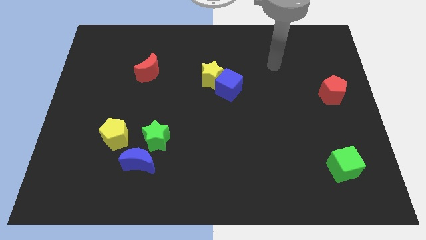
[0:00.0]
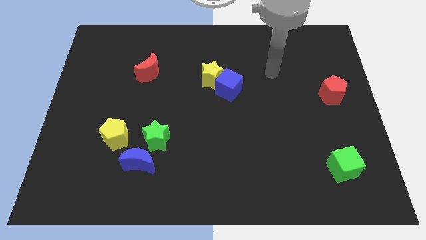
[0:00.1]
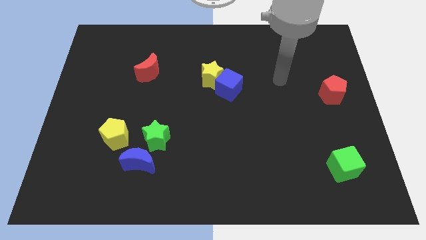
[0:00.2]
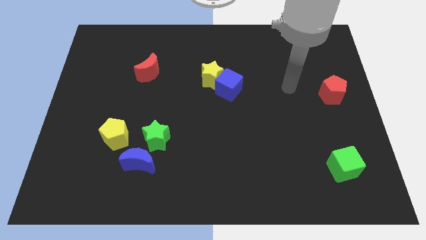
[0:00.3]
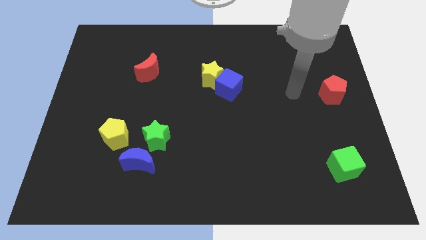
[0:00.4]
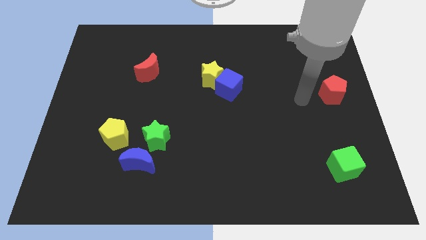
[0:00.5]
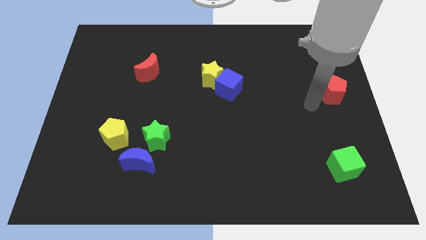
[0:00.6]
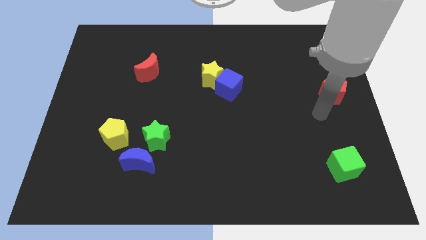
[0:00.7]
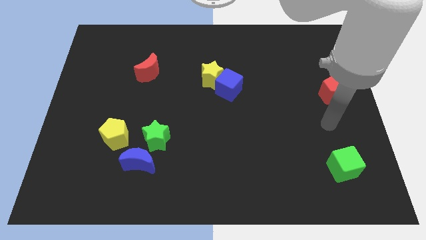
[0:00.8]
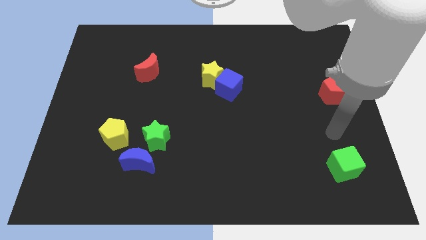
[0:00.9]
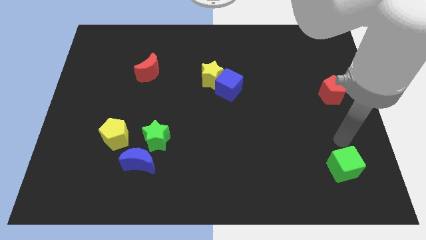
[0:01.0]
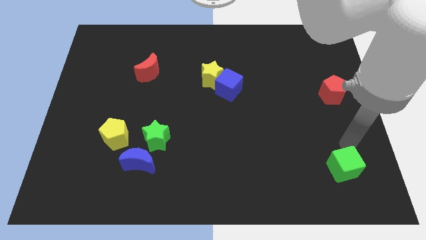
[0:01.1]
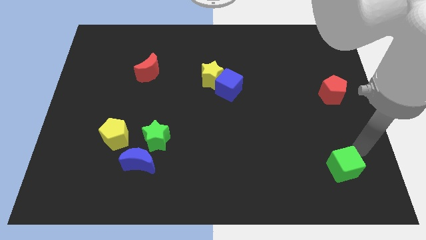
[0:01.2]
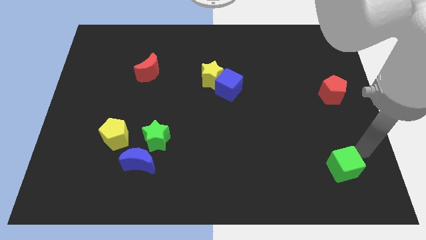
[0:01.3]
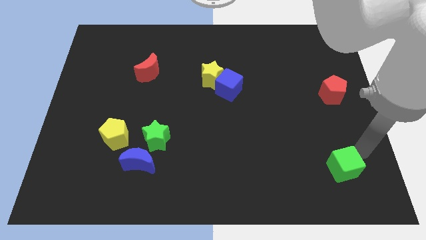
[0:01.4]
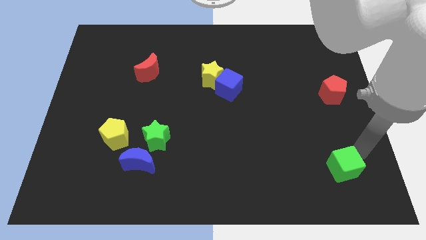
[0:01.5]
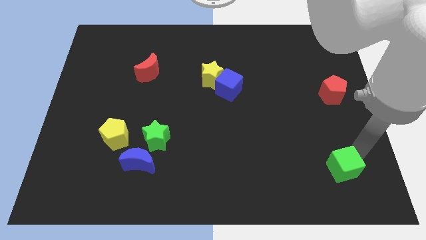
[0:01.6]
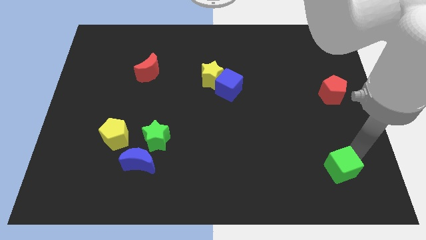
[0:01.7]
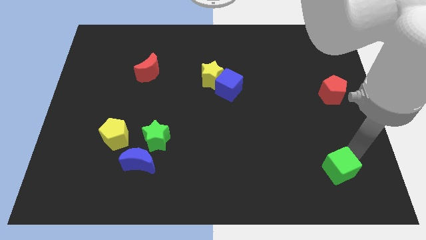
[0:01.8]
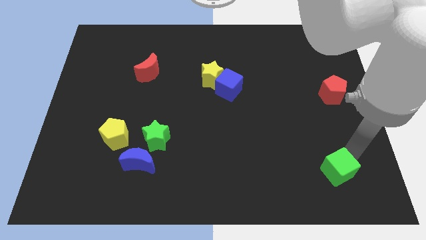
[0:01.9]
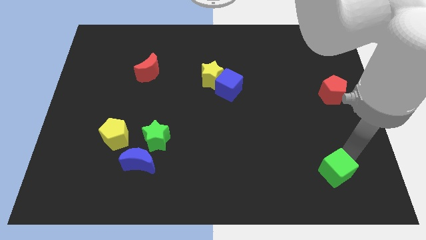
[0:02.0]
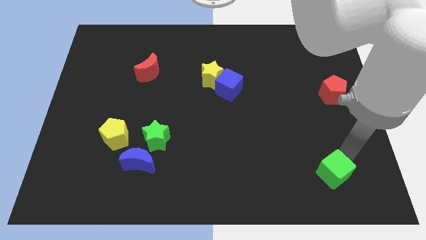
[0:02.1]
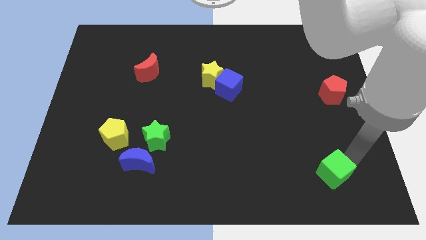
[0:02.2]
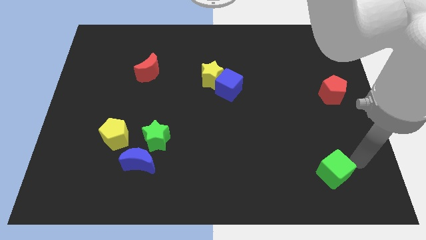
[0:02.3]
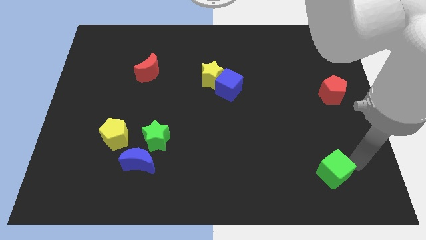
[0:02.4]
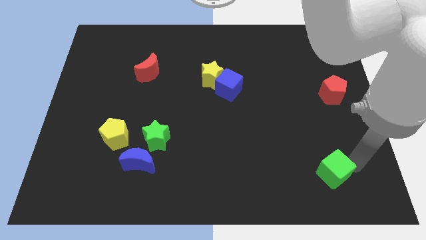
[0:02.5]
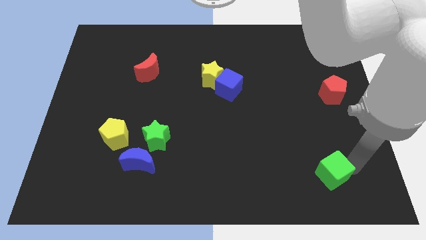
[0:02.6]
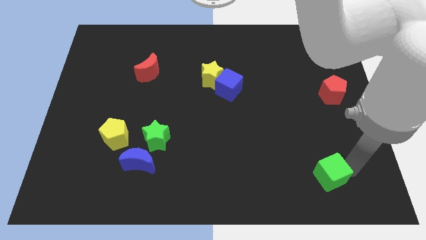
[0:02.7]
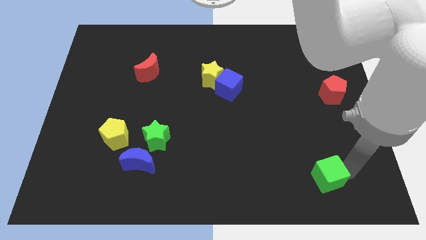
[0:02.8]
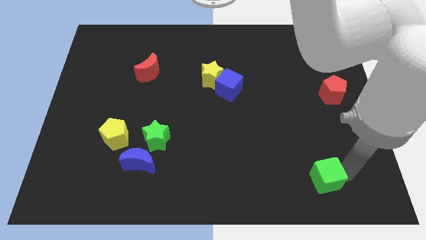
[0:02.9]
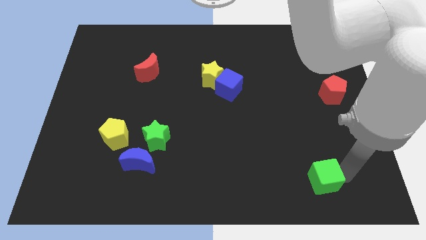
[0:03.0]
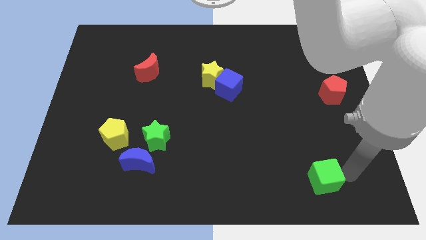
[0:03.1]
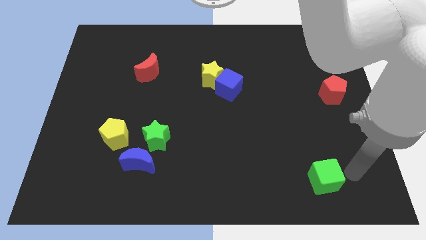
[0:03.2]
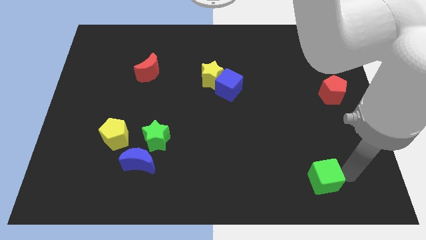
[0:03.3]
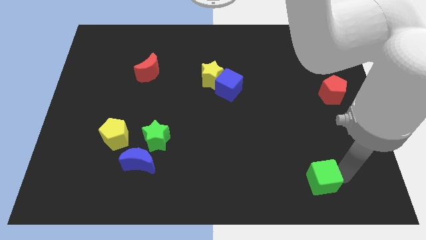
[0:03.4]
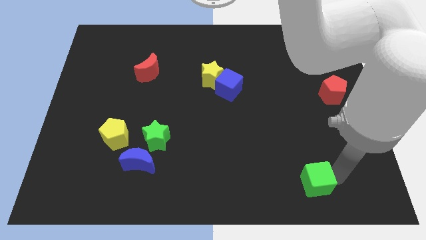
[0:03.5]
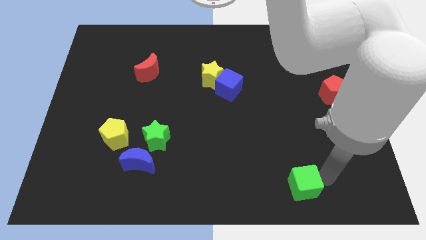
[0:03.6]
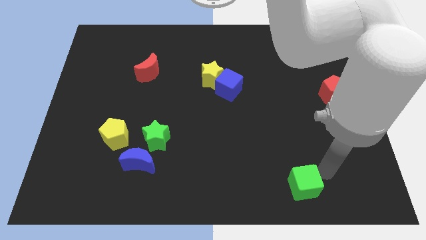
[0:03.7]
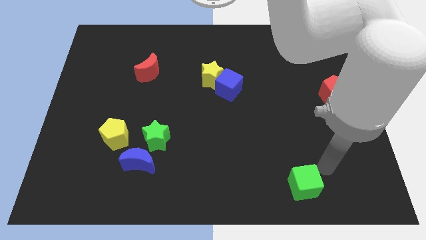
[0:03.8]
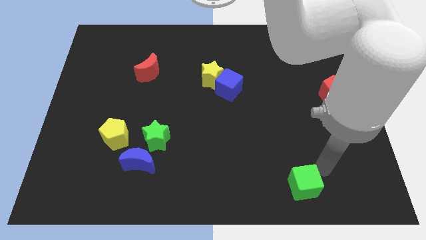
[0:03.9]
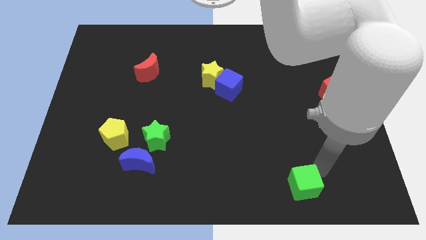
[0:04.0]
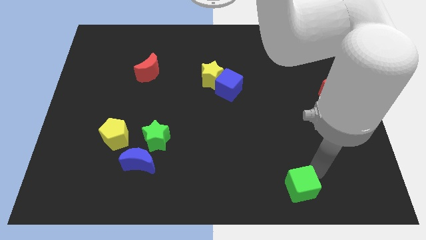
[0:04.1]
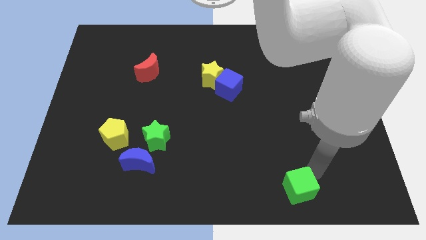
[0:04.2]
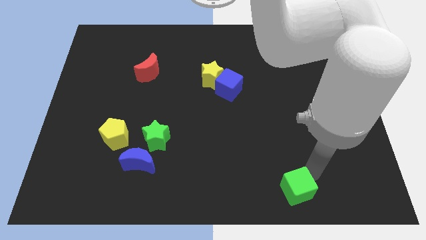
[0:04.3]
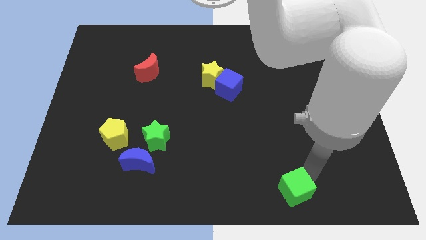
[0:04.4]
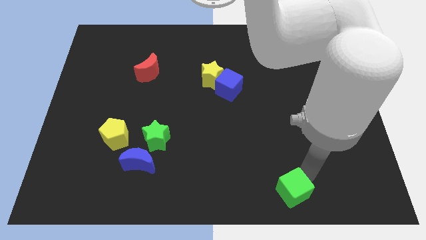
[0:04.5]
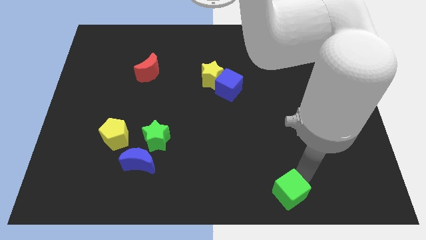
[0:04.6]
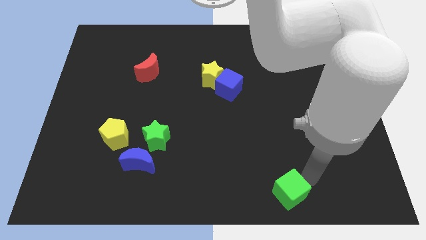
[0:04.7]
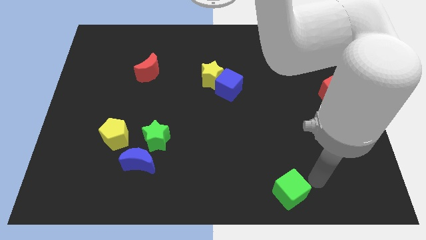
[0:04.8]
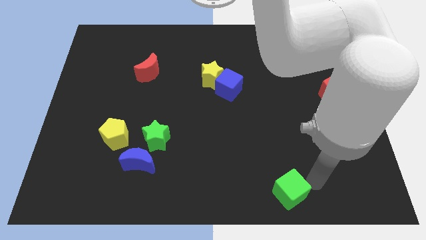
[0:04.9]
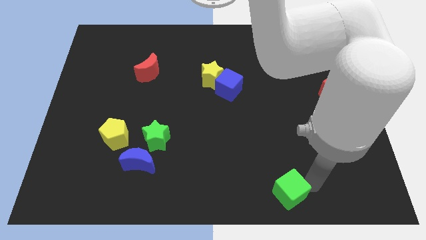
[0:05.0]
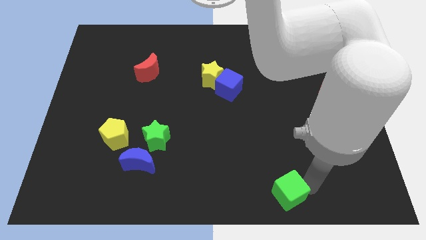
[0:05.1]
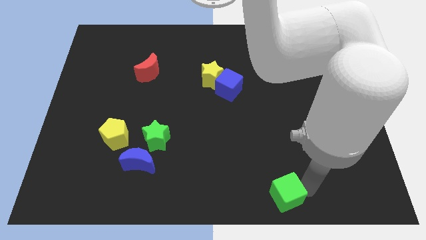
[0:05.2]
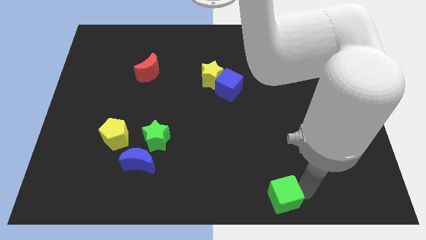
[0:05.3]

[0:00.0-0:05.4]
put the green cube to the bottom side

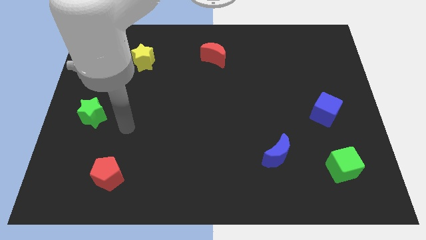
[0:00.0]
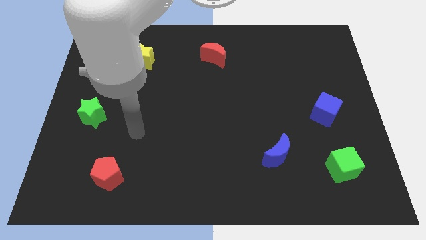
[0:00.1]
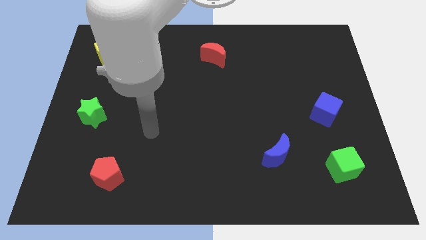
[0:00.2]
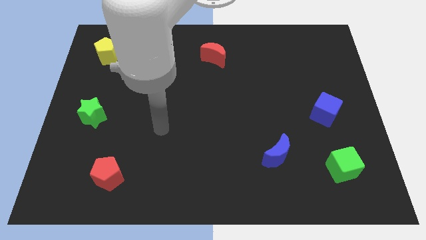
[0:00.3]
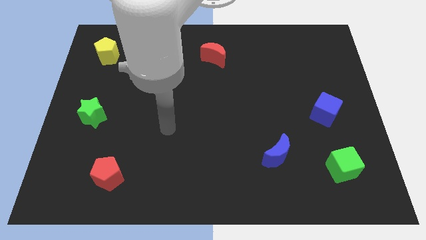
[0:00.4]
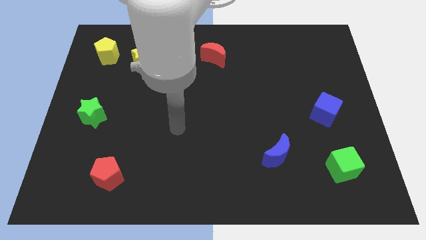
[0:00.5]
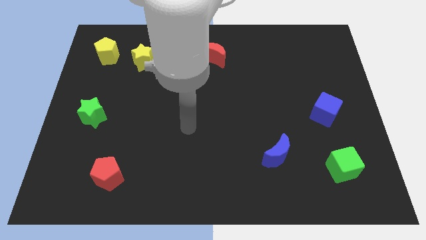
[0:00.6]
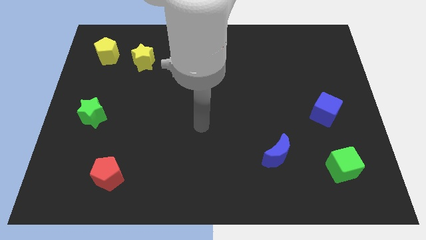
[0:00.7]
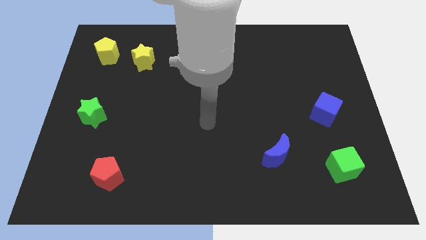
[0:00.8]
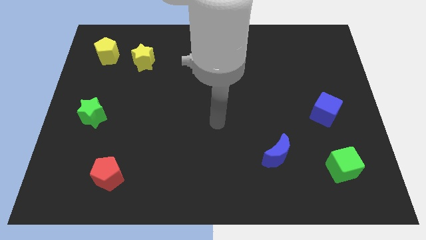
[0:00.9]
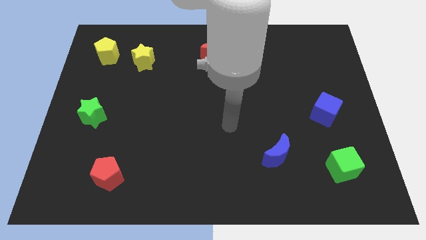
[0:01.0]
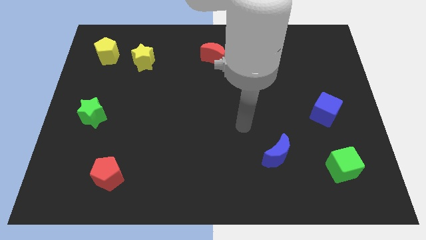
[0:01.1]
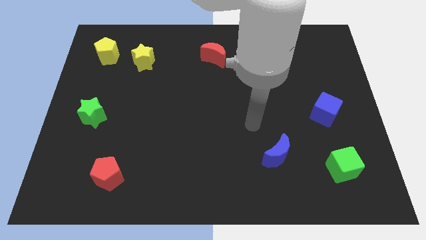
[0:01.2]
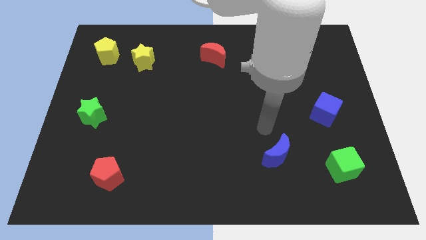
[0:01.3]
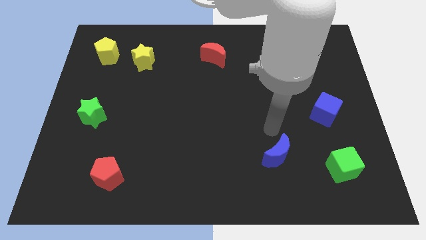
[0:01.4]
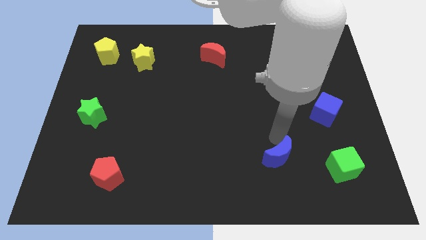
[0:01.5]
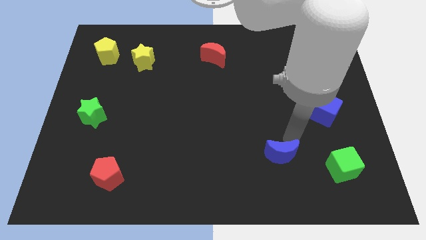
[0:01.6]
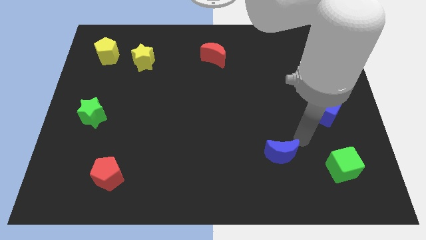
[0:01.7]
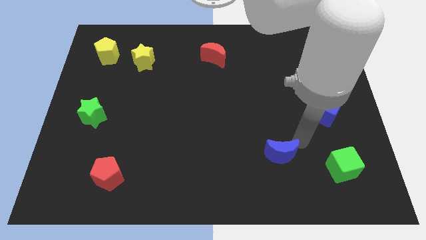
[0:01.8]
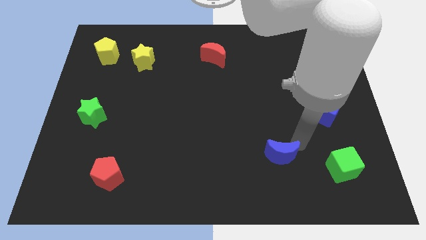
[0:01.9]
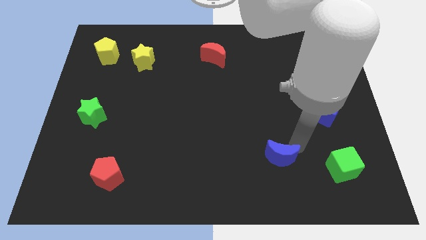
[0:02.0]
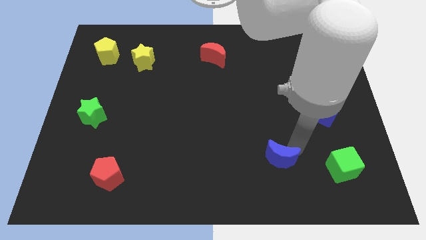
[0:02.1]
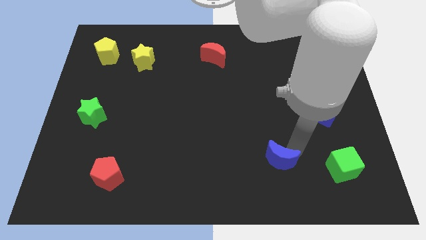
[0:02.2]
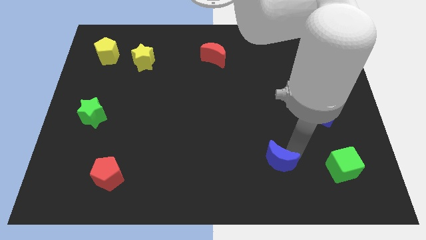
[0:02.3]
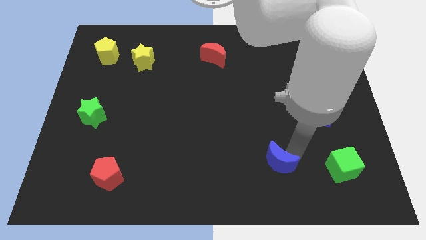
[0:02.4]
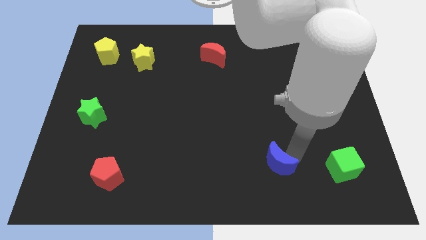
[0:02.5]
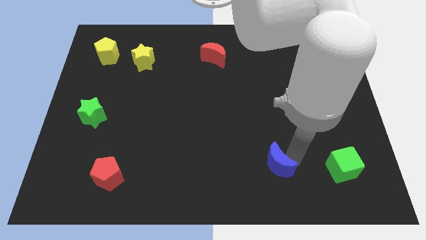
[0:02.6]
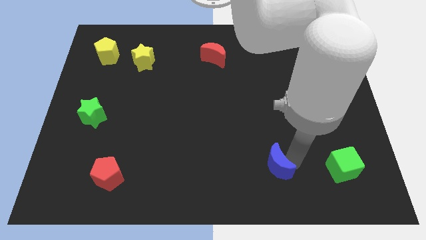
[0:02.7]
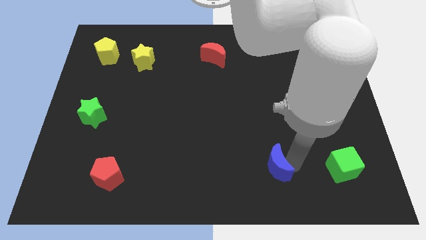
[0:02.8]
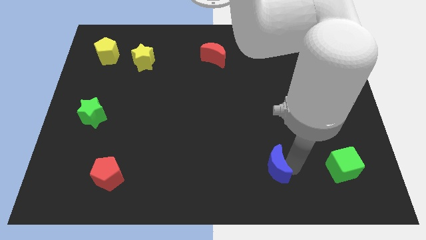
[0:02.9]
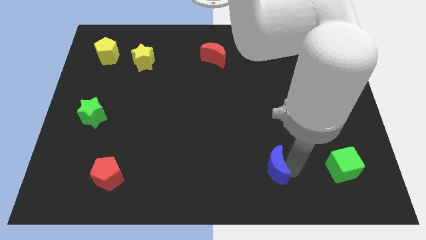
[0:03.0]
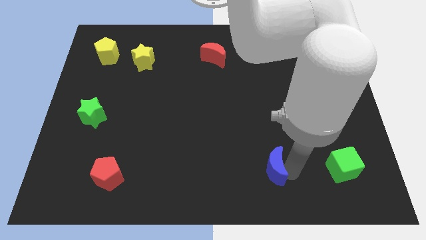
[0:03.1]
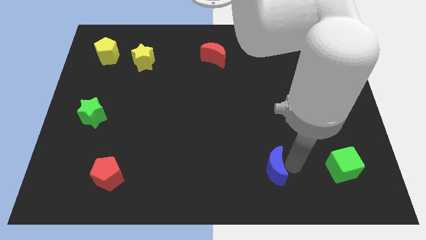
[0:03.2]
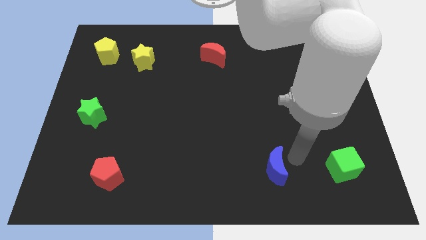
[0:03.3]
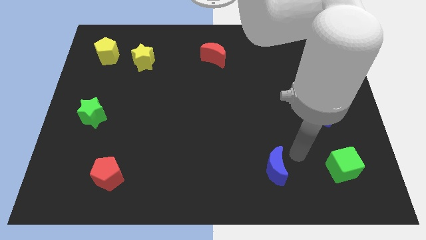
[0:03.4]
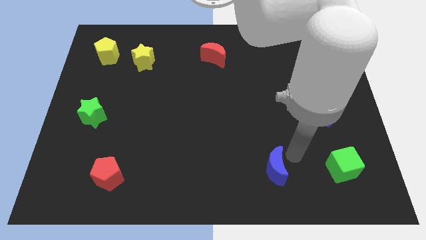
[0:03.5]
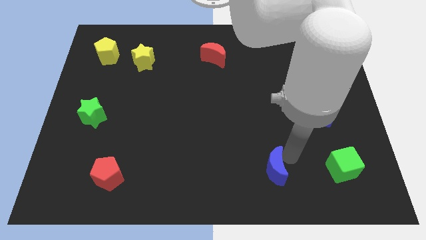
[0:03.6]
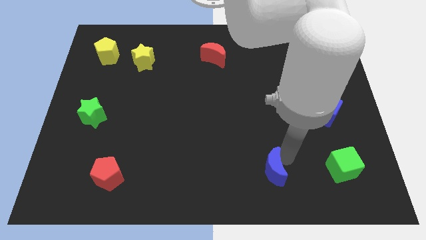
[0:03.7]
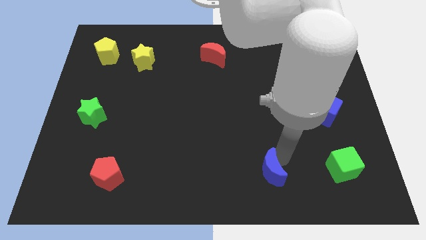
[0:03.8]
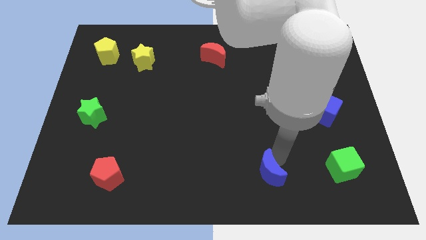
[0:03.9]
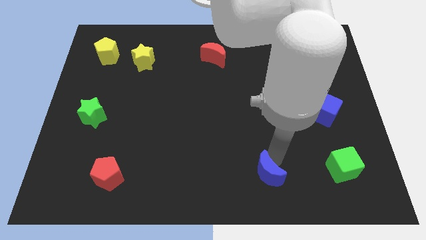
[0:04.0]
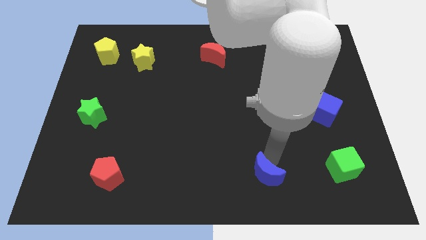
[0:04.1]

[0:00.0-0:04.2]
put the blue moon to the bottom
